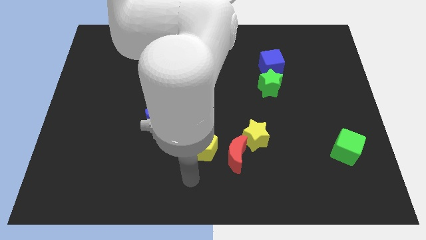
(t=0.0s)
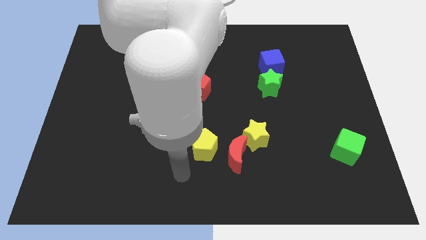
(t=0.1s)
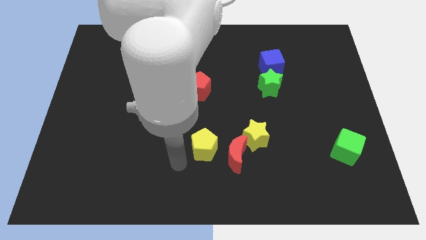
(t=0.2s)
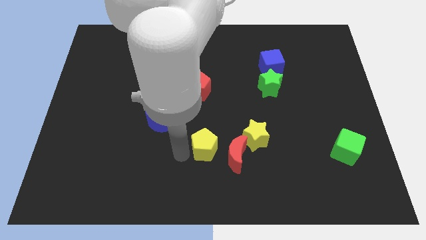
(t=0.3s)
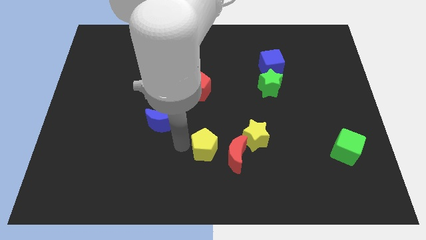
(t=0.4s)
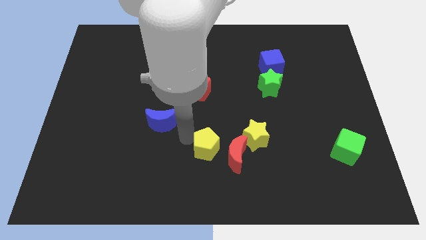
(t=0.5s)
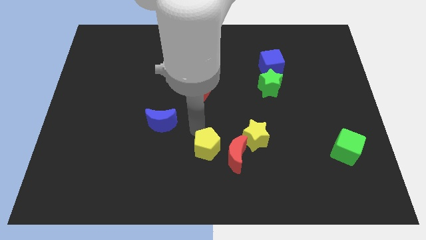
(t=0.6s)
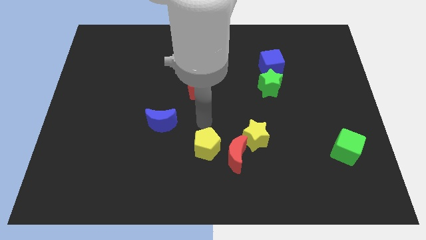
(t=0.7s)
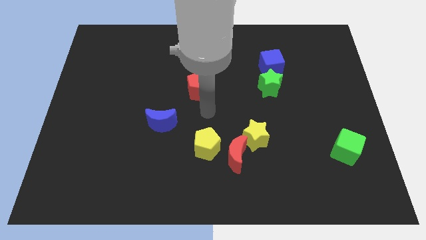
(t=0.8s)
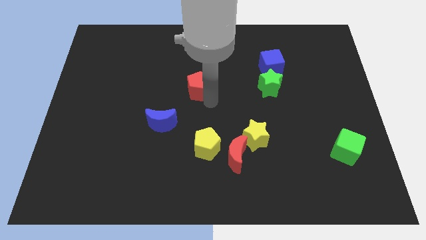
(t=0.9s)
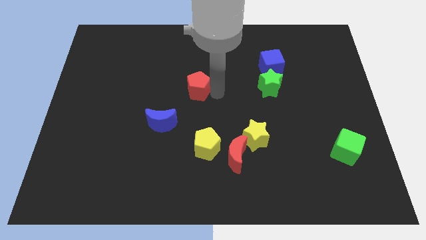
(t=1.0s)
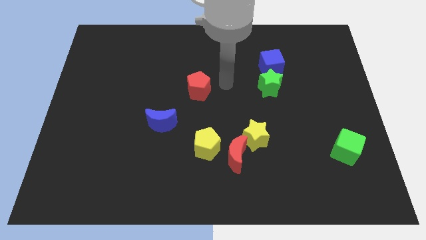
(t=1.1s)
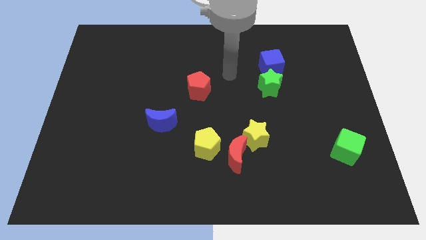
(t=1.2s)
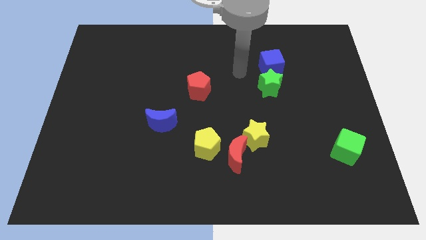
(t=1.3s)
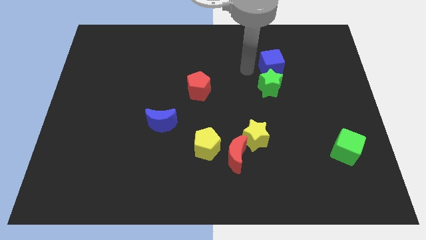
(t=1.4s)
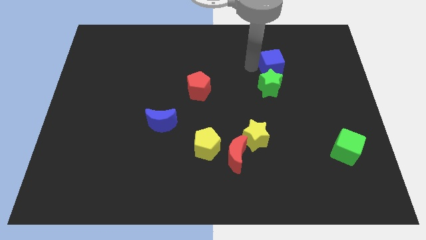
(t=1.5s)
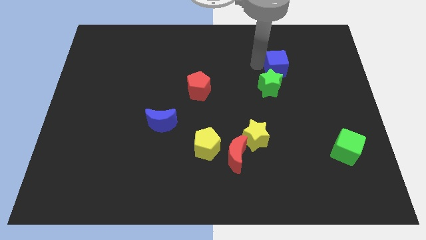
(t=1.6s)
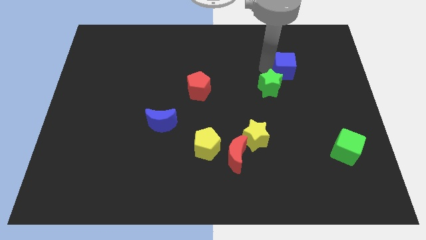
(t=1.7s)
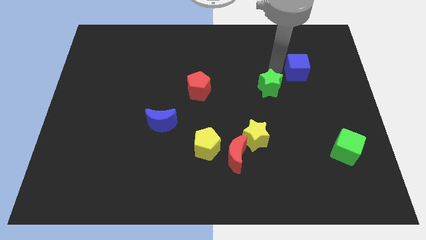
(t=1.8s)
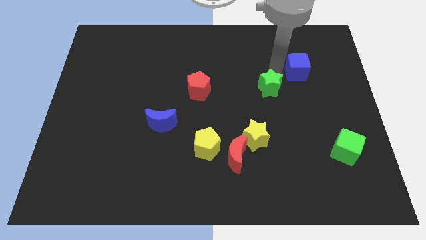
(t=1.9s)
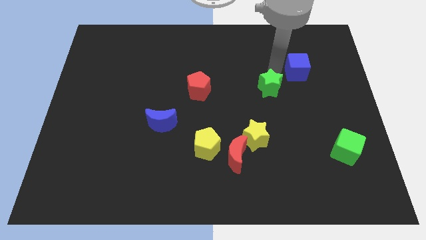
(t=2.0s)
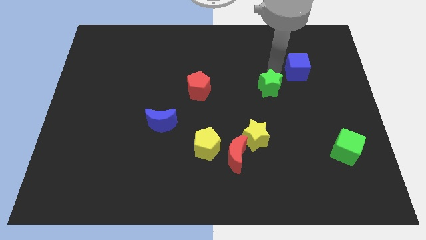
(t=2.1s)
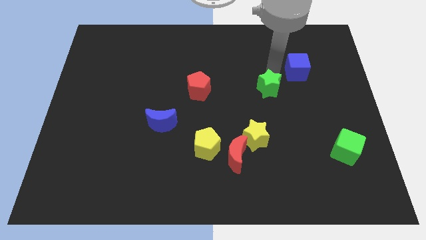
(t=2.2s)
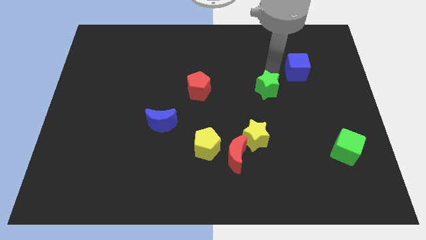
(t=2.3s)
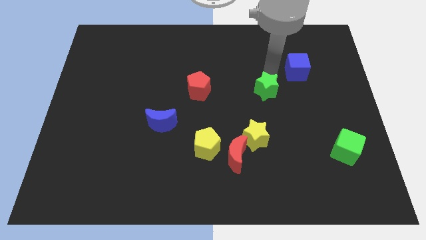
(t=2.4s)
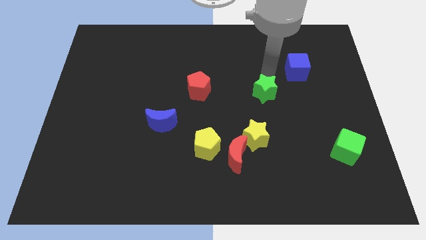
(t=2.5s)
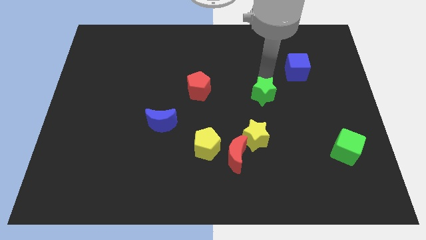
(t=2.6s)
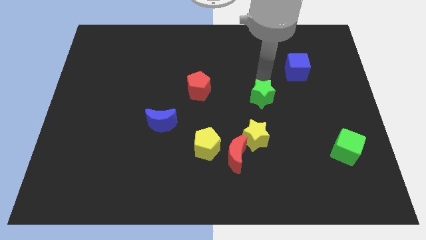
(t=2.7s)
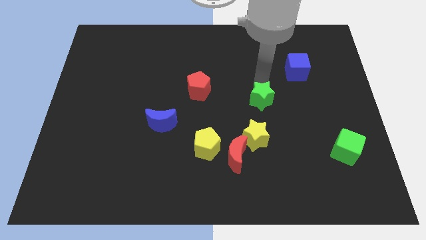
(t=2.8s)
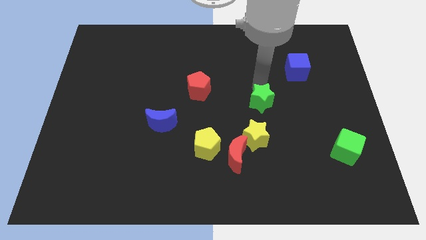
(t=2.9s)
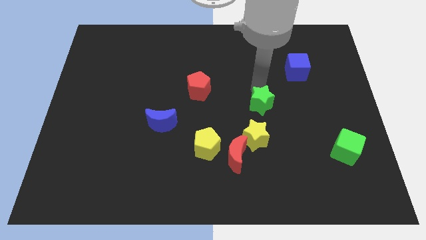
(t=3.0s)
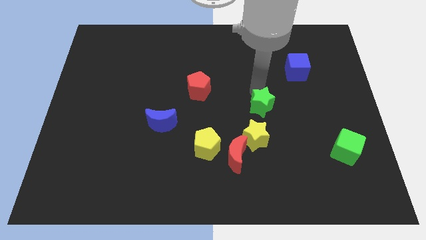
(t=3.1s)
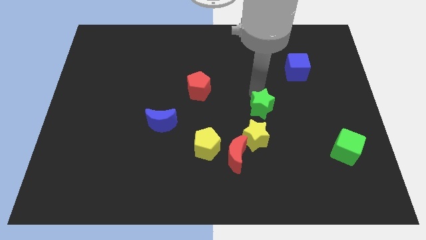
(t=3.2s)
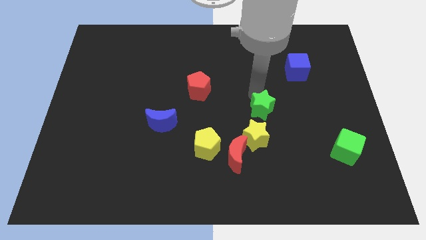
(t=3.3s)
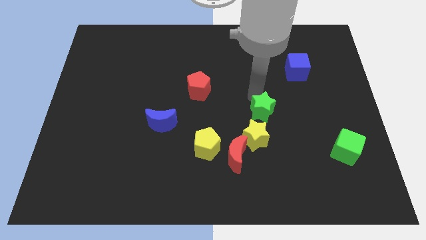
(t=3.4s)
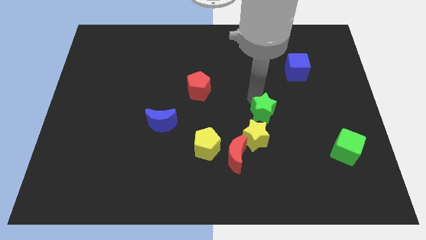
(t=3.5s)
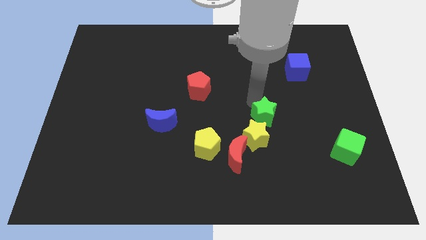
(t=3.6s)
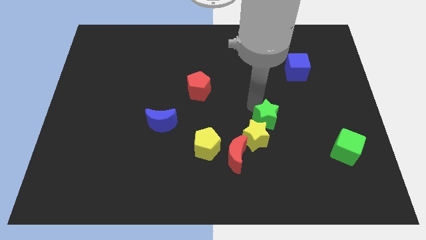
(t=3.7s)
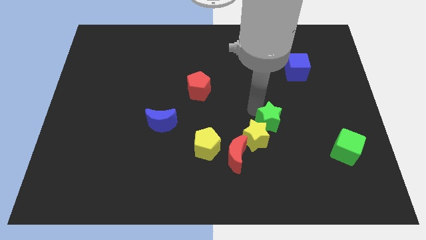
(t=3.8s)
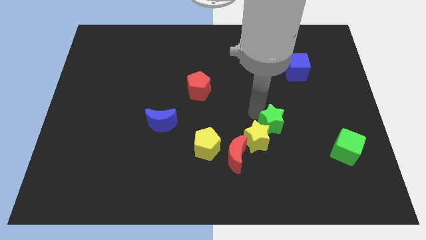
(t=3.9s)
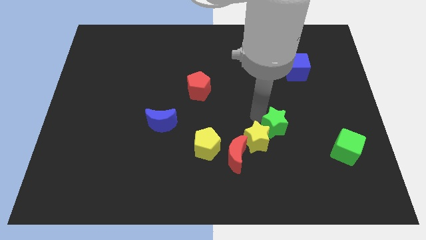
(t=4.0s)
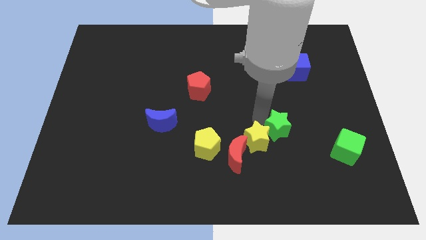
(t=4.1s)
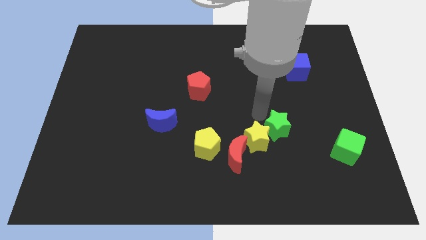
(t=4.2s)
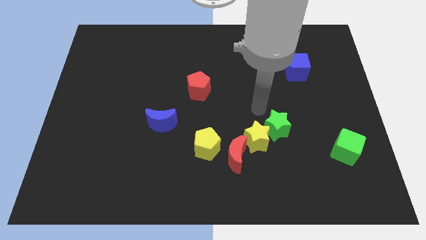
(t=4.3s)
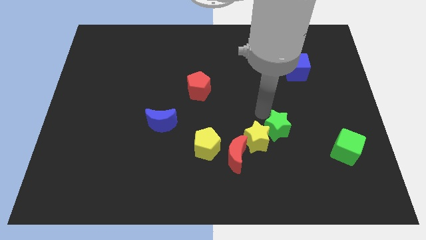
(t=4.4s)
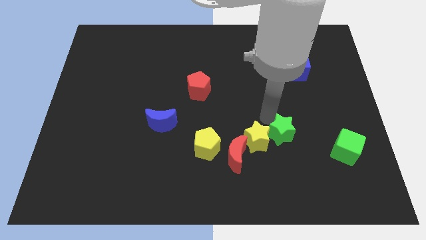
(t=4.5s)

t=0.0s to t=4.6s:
push the green star just left of the green cube

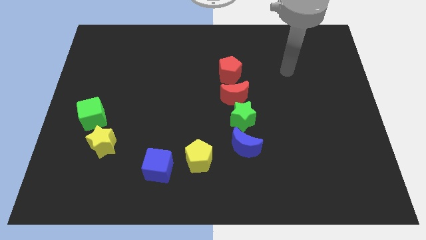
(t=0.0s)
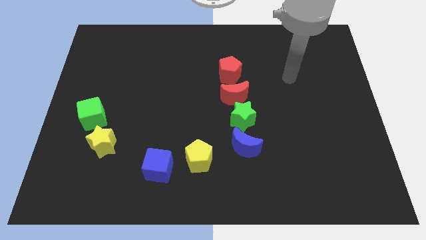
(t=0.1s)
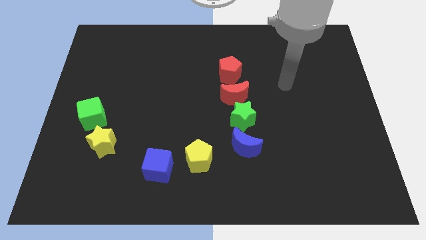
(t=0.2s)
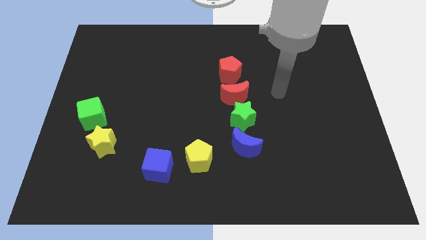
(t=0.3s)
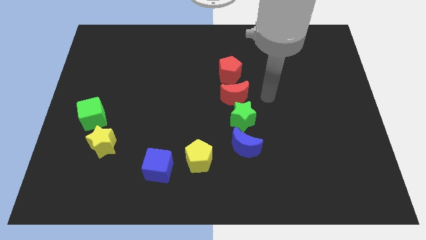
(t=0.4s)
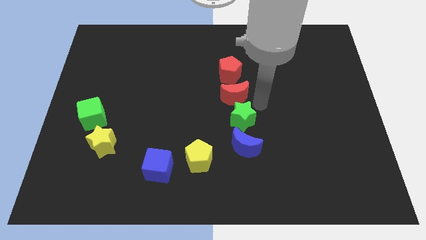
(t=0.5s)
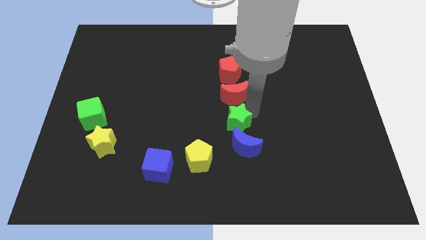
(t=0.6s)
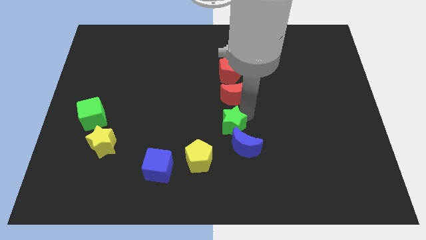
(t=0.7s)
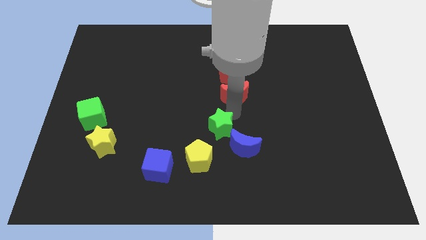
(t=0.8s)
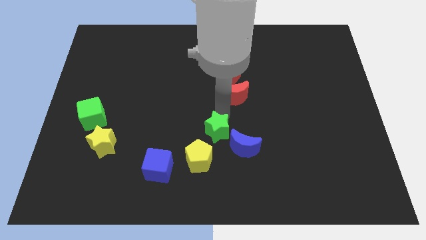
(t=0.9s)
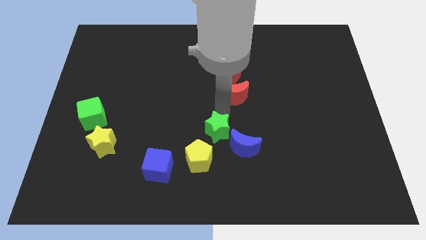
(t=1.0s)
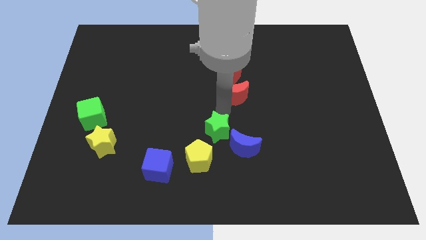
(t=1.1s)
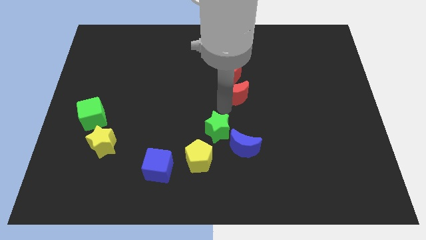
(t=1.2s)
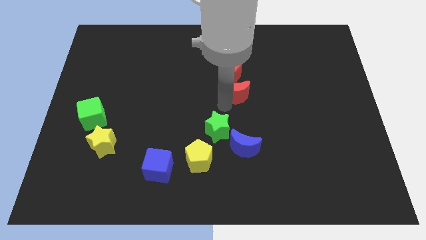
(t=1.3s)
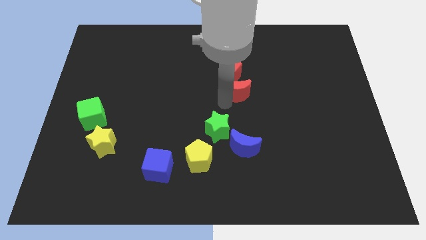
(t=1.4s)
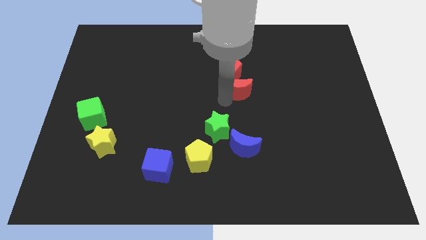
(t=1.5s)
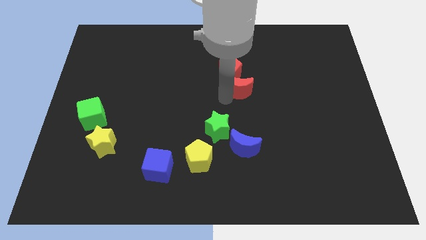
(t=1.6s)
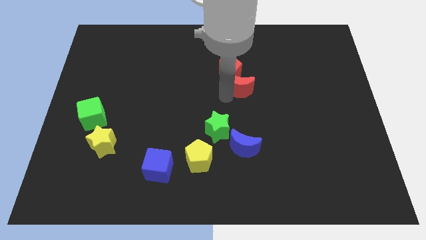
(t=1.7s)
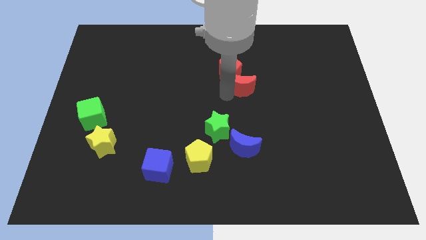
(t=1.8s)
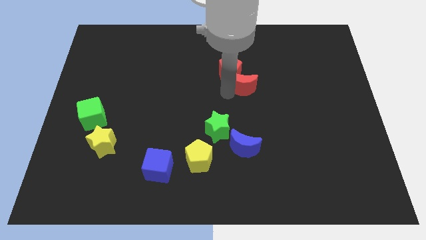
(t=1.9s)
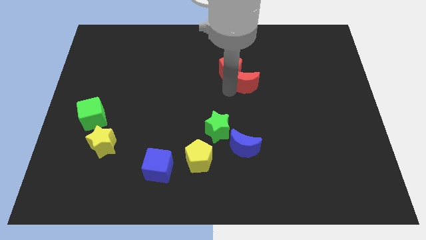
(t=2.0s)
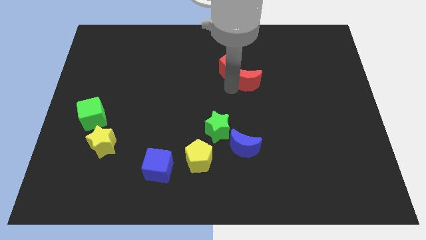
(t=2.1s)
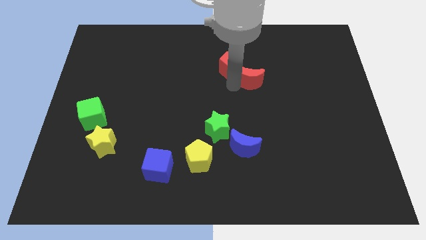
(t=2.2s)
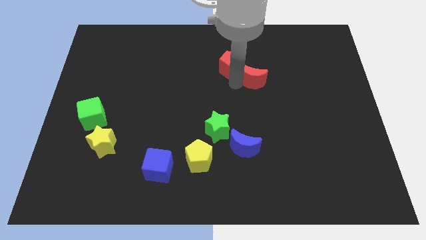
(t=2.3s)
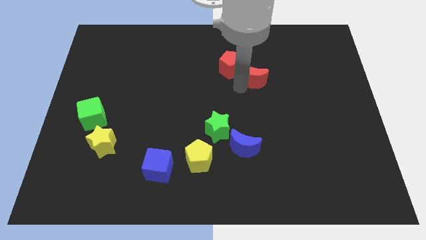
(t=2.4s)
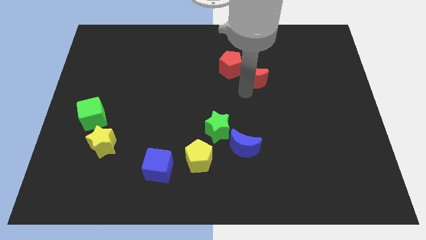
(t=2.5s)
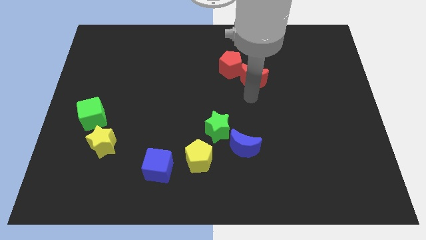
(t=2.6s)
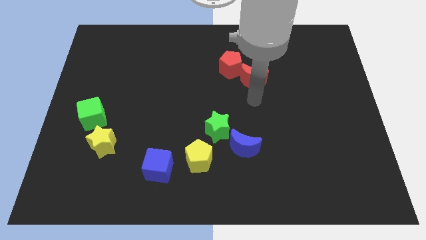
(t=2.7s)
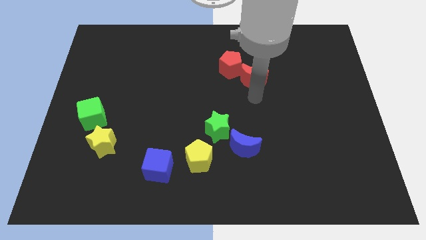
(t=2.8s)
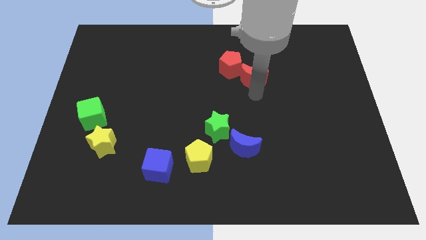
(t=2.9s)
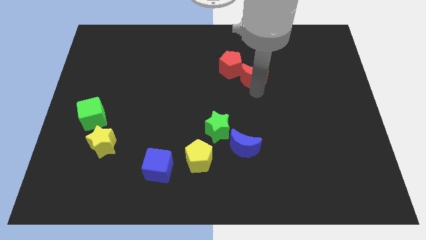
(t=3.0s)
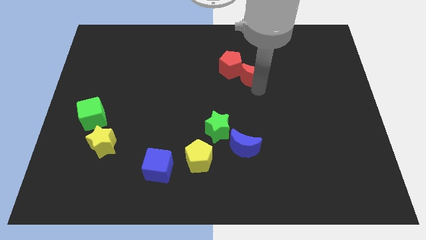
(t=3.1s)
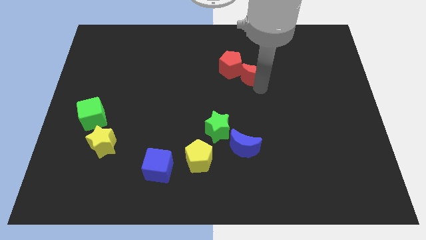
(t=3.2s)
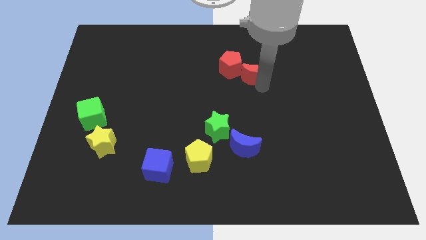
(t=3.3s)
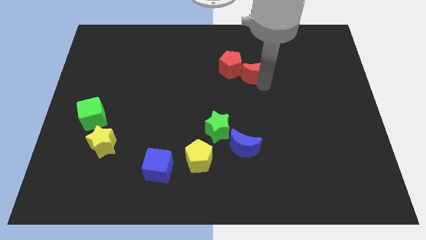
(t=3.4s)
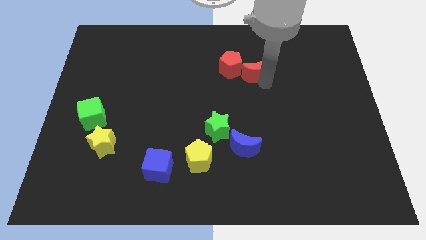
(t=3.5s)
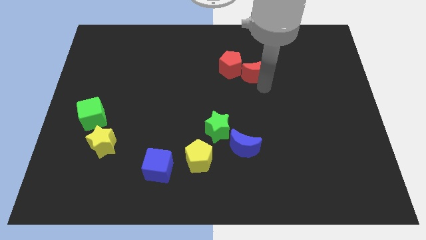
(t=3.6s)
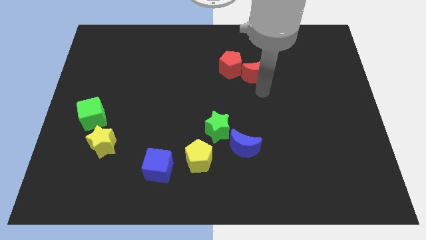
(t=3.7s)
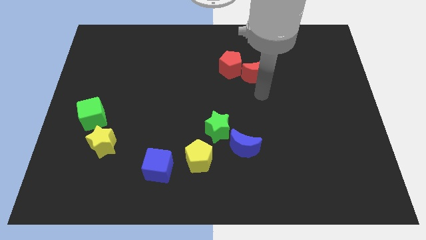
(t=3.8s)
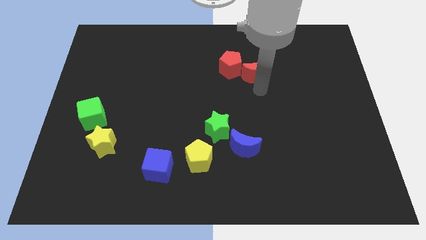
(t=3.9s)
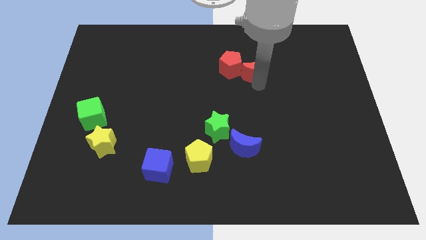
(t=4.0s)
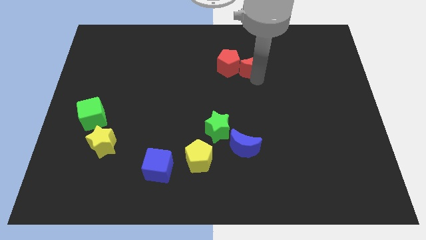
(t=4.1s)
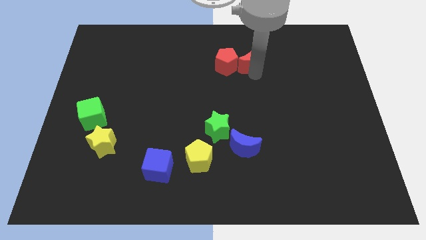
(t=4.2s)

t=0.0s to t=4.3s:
put the red moon diagonally up and to the right of the red pentagon
